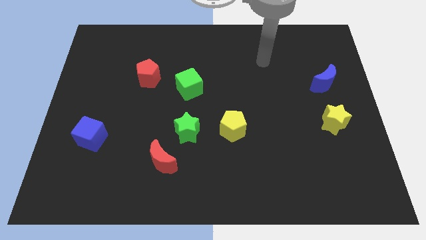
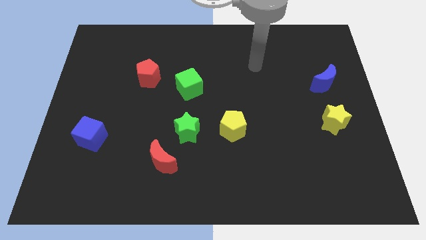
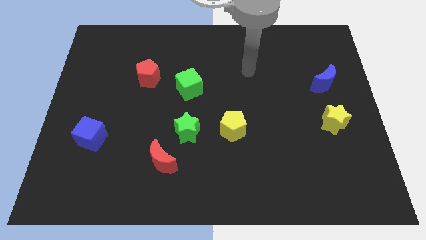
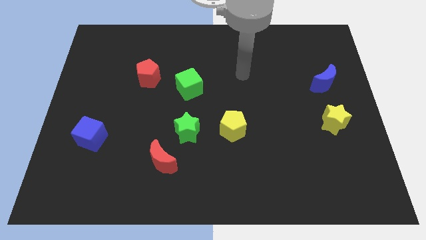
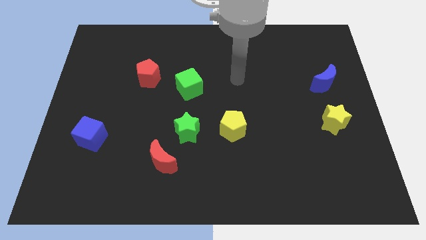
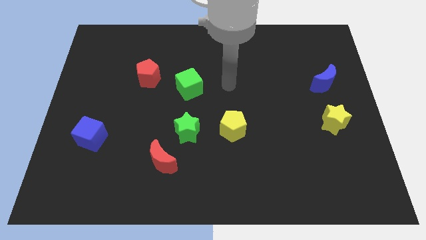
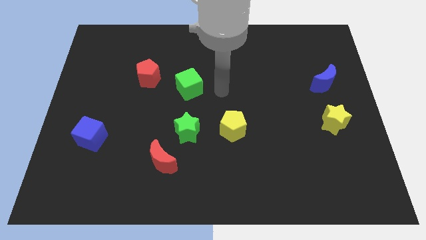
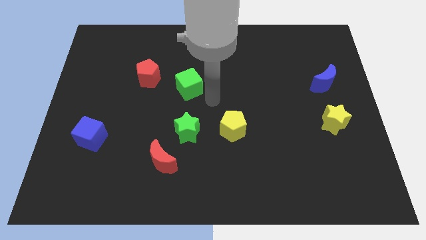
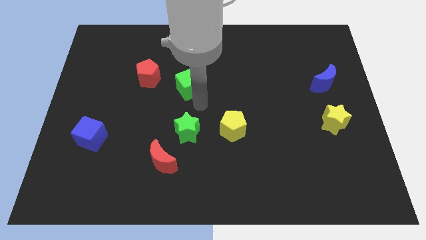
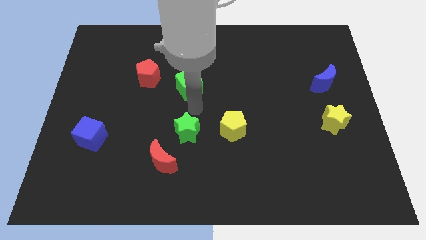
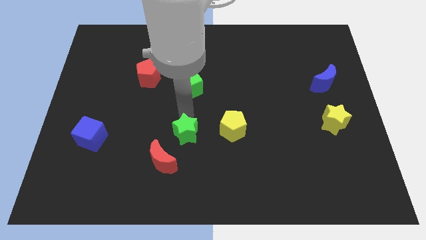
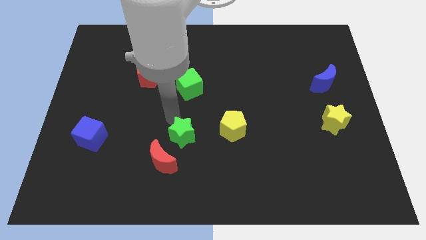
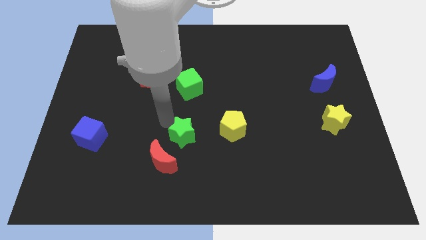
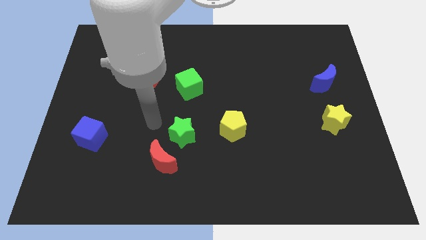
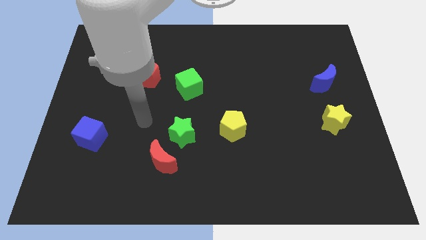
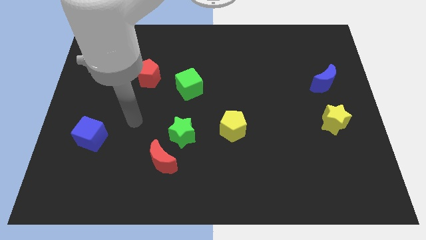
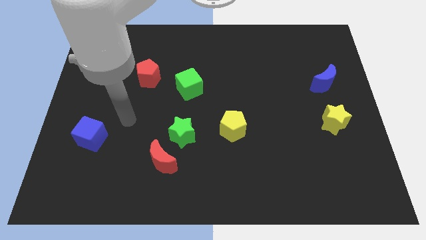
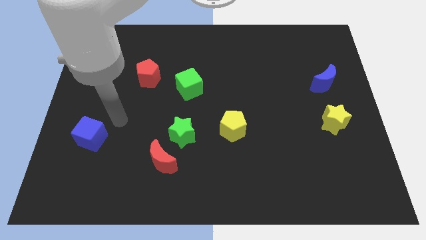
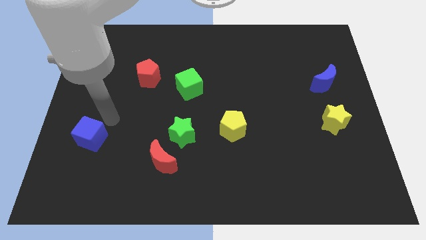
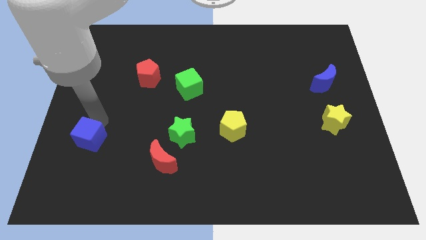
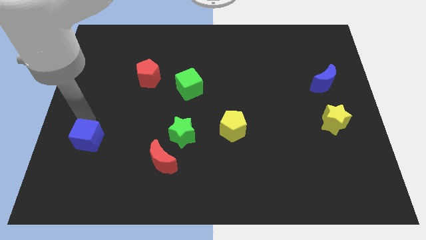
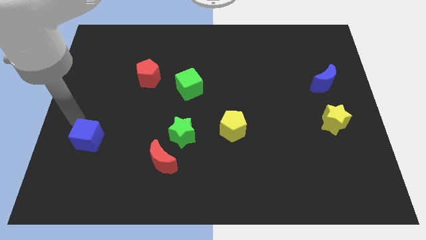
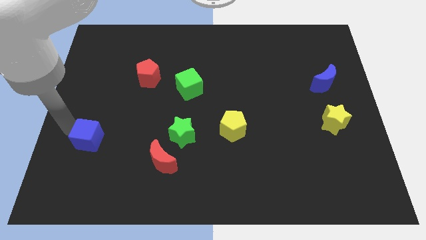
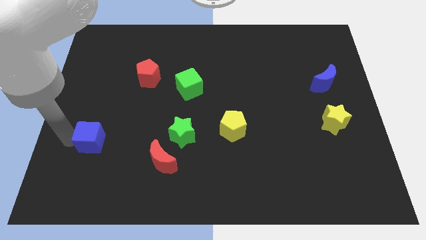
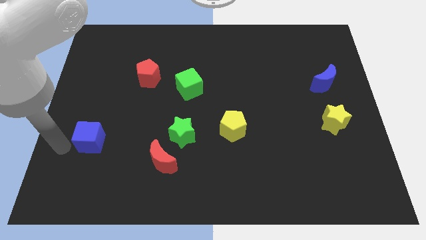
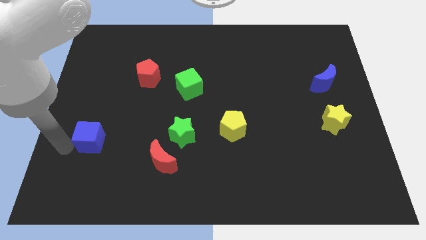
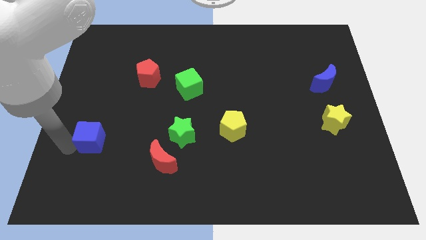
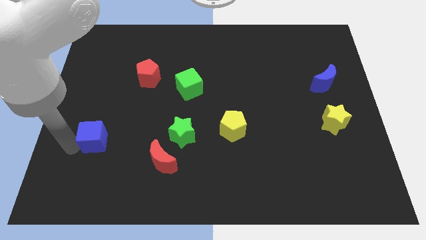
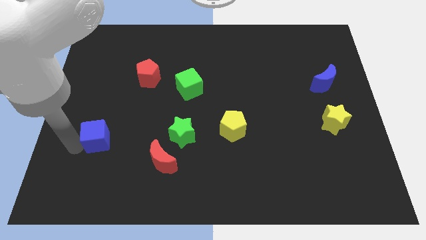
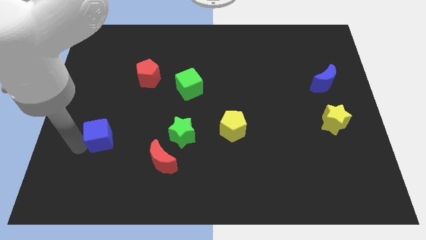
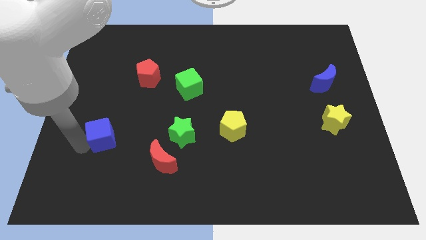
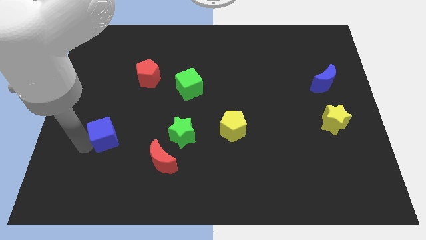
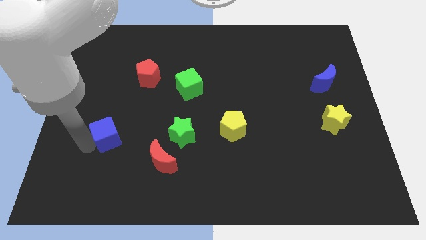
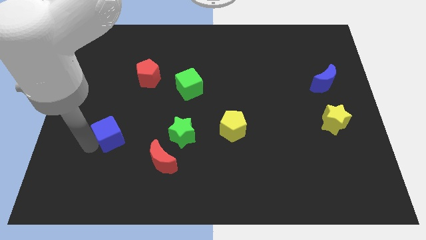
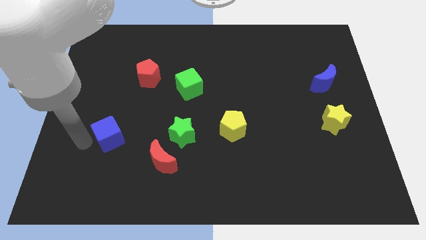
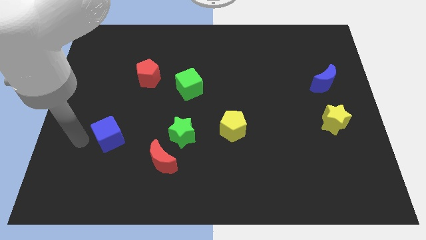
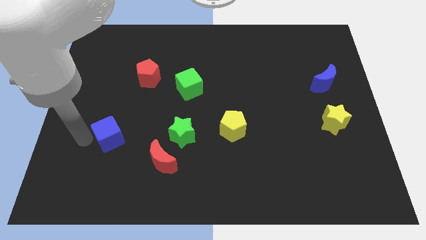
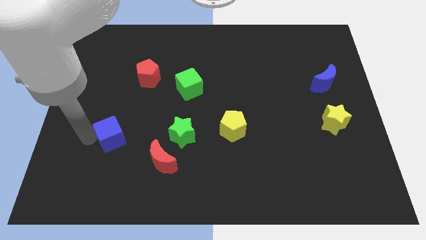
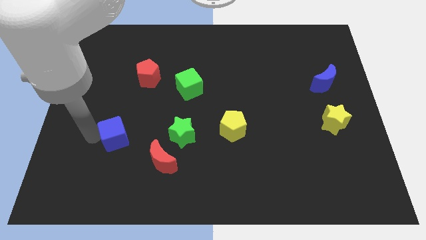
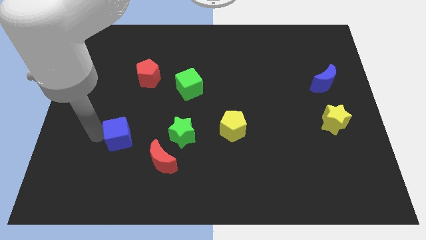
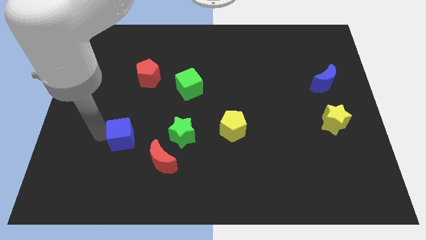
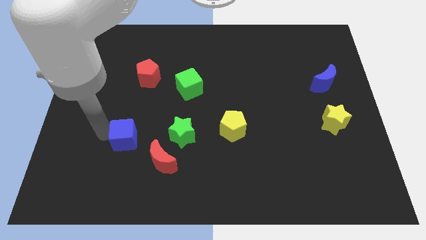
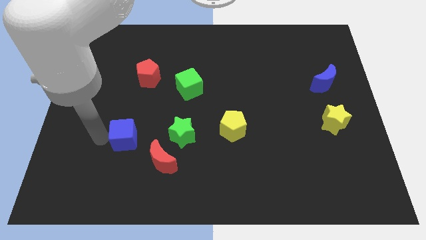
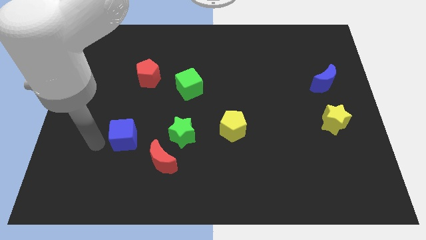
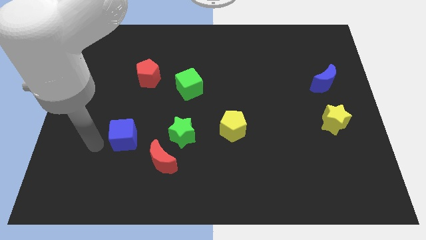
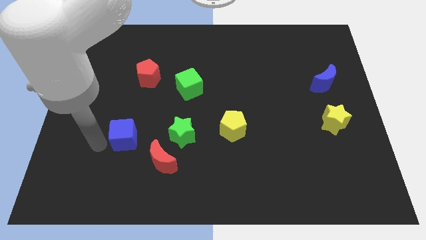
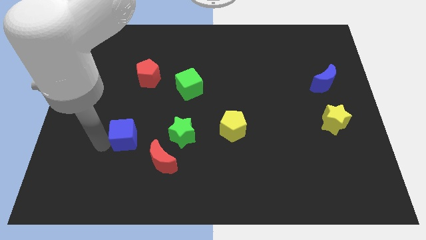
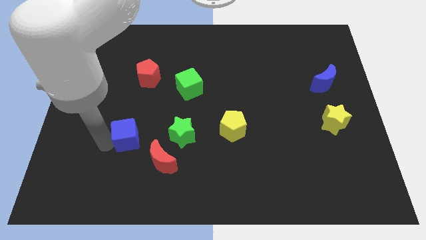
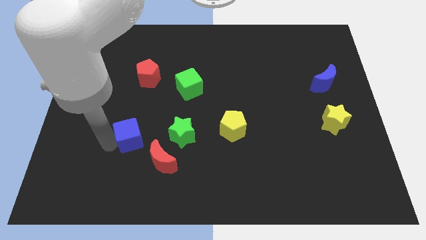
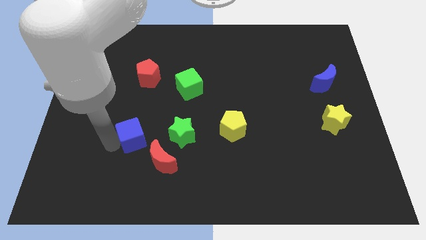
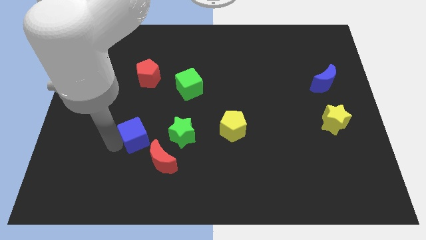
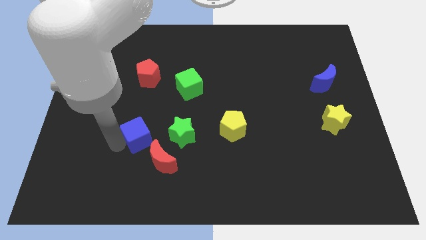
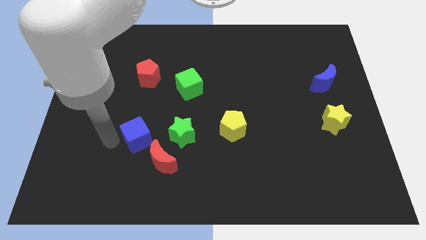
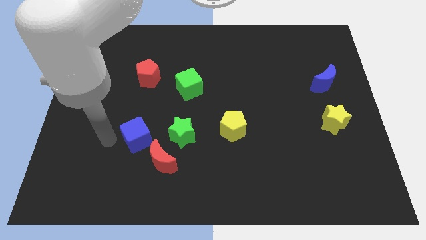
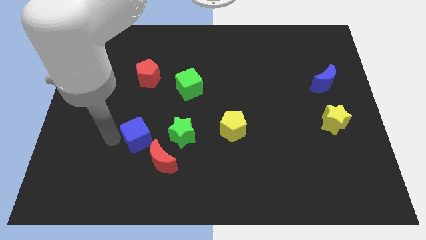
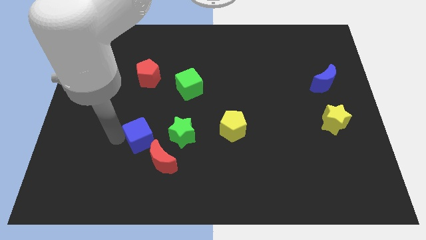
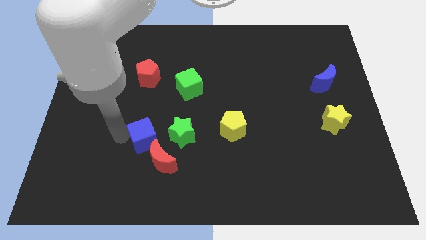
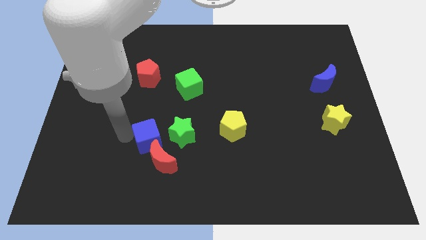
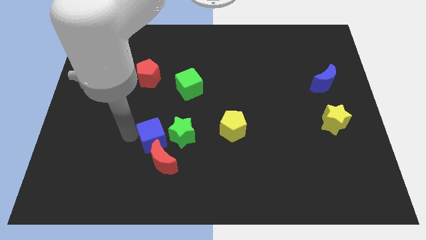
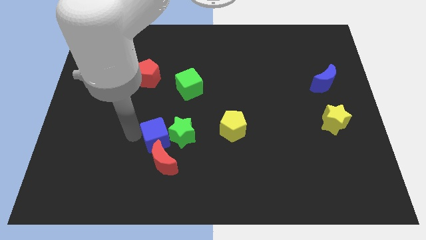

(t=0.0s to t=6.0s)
put the blue cube to the green star
